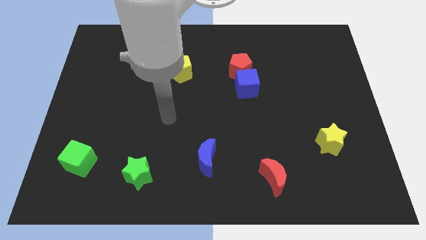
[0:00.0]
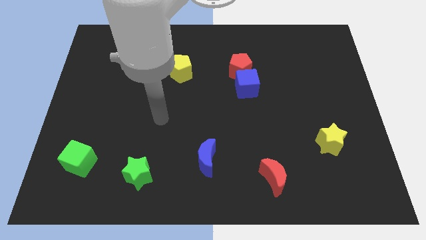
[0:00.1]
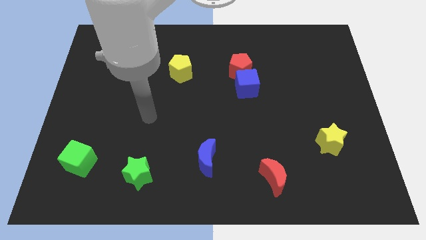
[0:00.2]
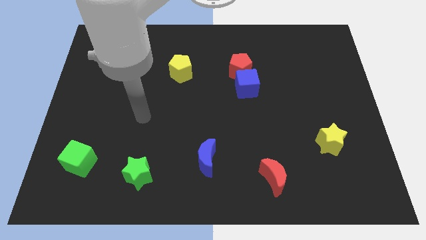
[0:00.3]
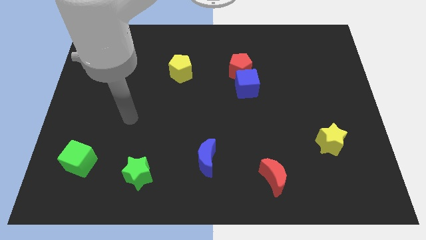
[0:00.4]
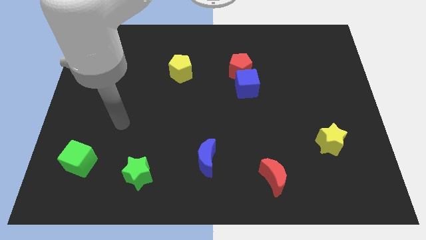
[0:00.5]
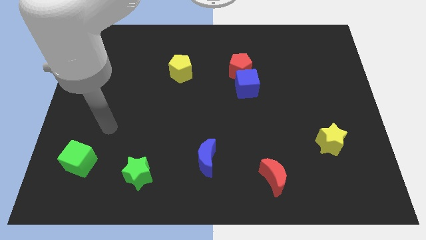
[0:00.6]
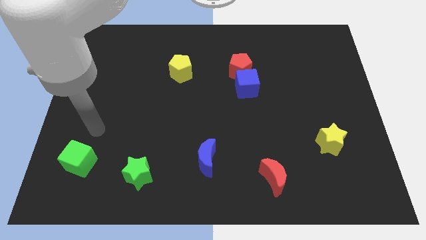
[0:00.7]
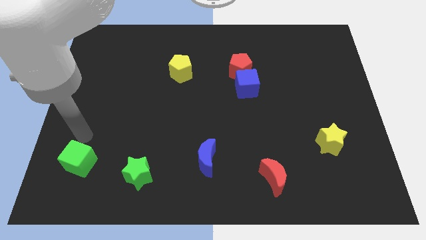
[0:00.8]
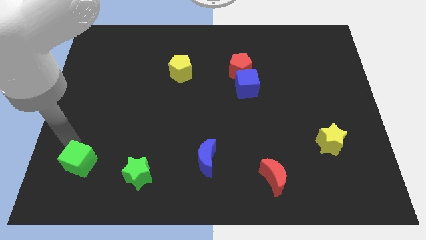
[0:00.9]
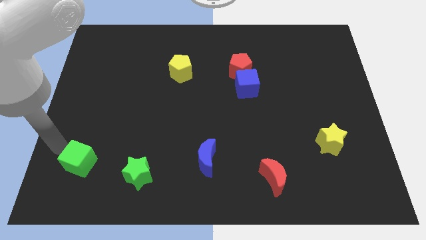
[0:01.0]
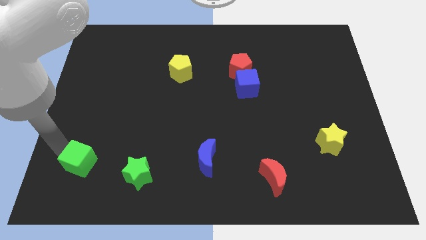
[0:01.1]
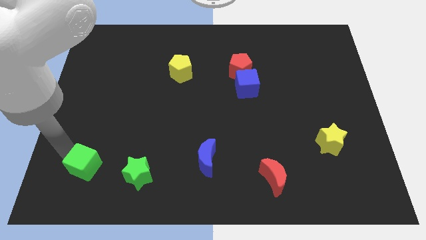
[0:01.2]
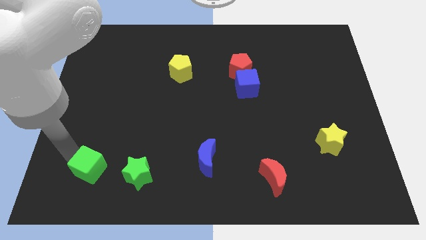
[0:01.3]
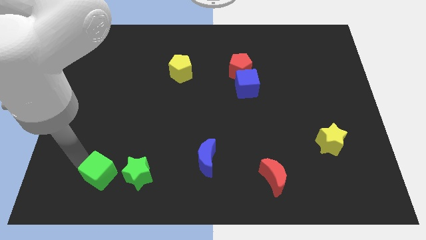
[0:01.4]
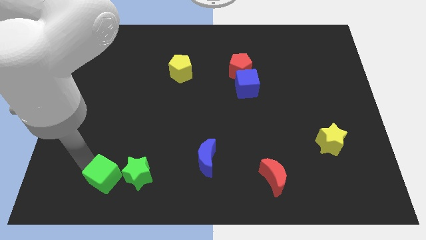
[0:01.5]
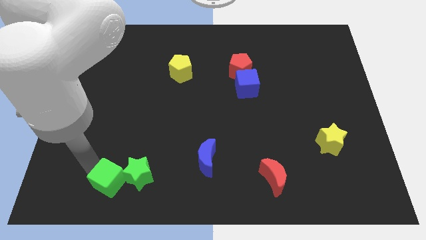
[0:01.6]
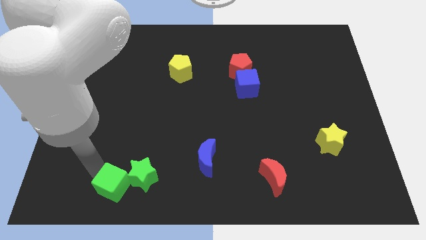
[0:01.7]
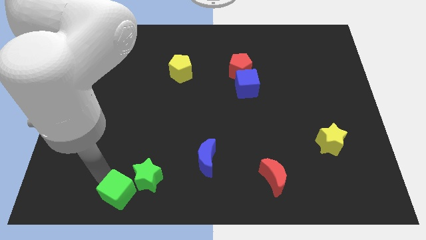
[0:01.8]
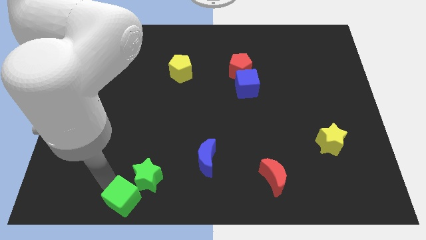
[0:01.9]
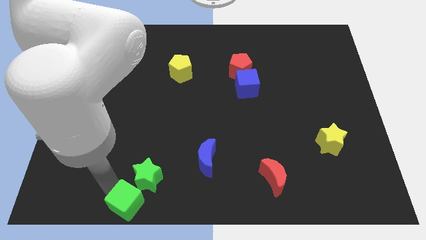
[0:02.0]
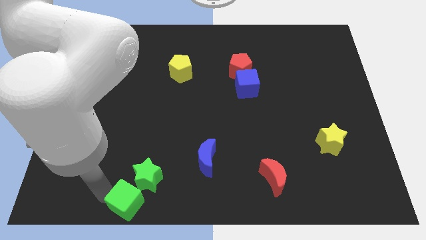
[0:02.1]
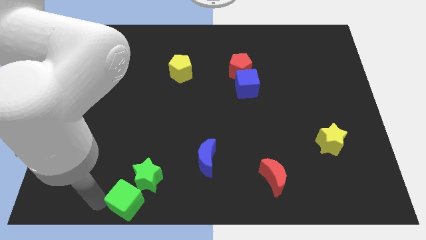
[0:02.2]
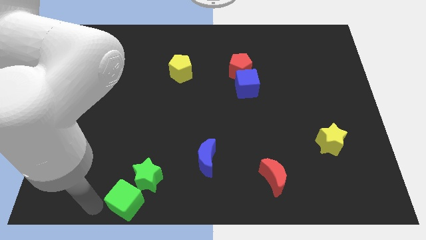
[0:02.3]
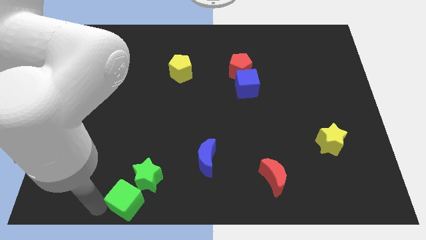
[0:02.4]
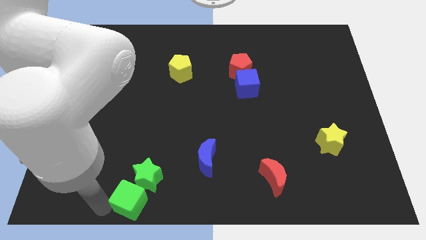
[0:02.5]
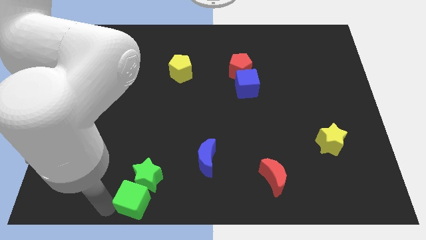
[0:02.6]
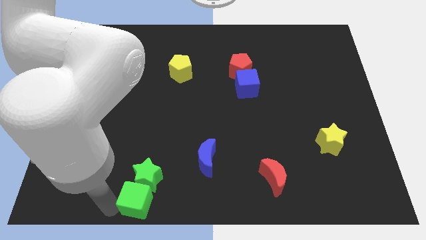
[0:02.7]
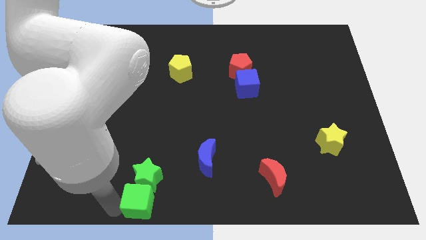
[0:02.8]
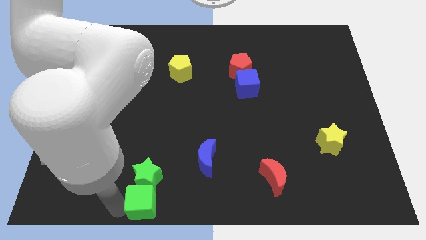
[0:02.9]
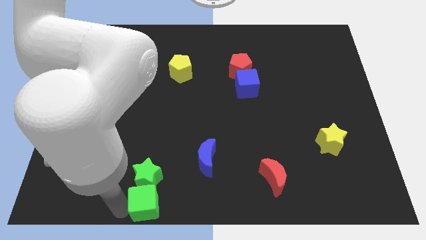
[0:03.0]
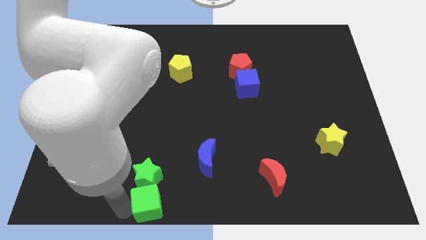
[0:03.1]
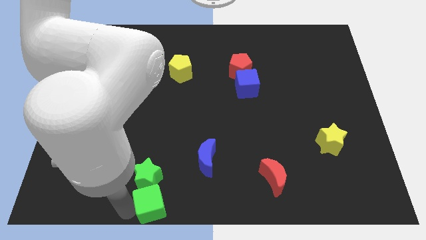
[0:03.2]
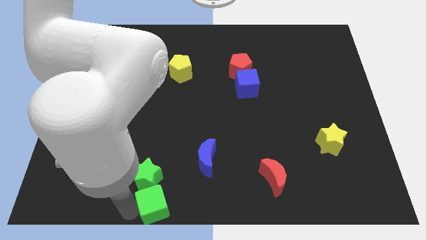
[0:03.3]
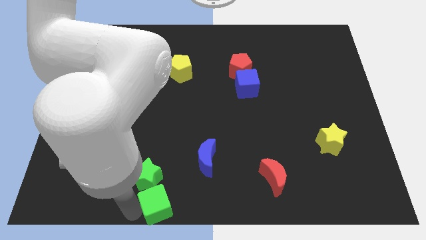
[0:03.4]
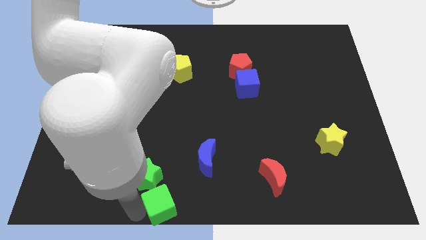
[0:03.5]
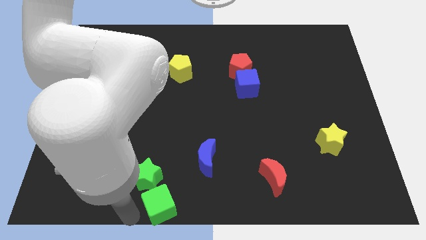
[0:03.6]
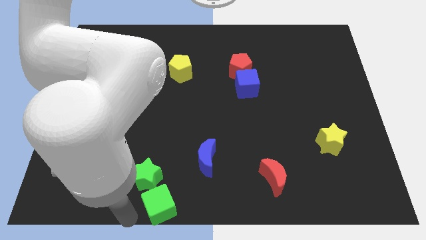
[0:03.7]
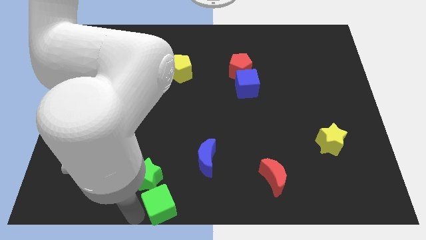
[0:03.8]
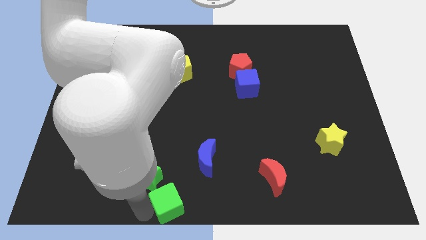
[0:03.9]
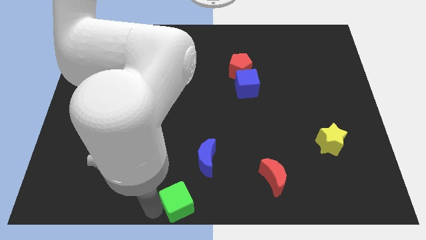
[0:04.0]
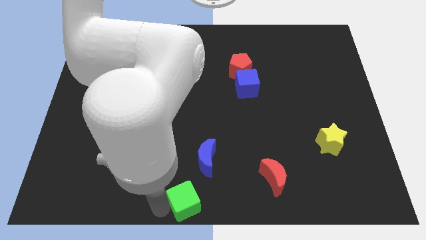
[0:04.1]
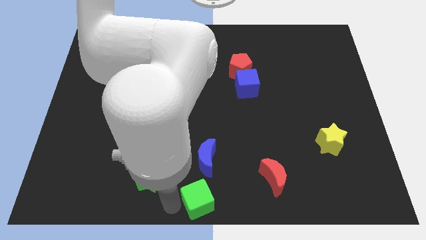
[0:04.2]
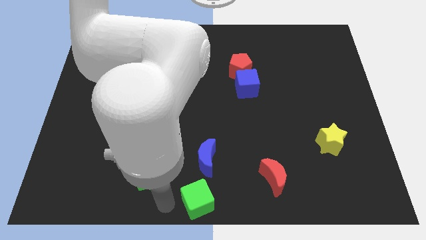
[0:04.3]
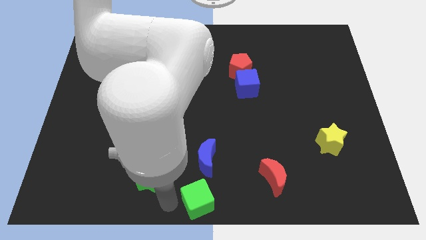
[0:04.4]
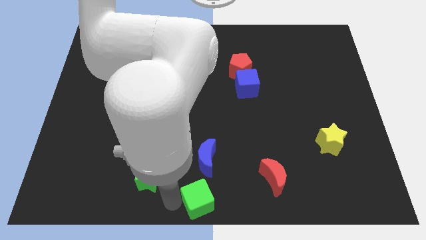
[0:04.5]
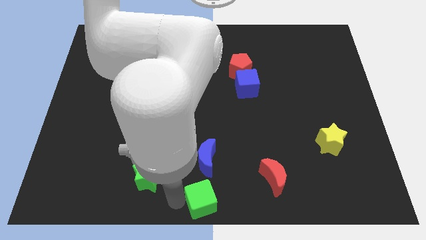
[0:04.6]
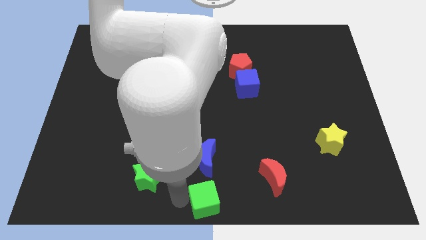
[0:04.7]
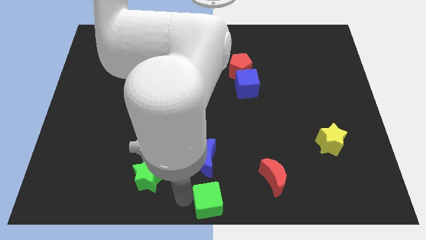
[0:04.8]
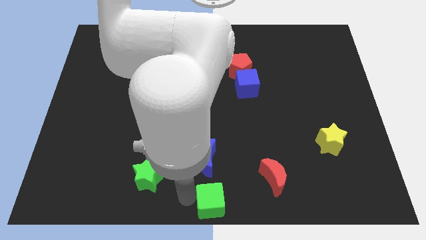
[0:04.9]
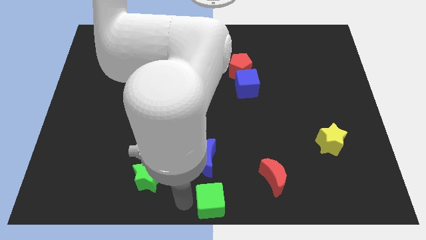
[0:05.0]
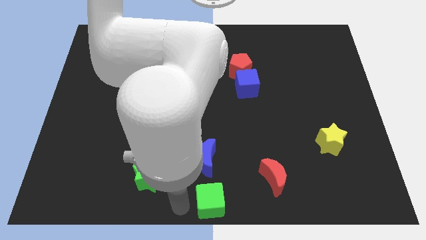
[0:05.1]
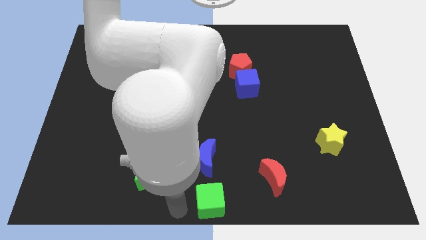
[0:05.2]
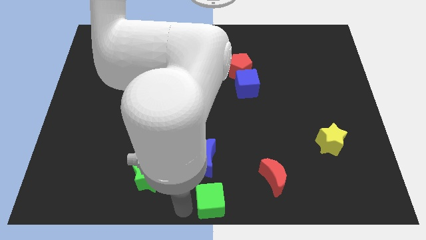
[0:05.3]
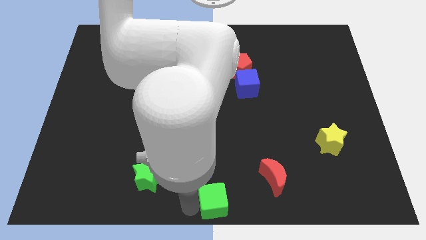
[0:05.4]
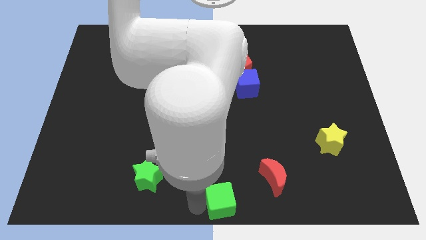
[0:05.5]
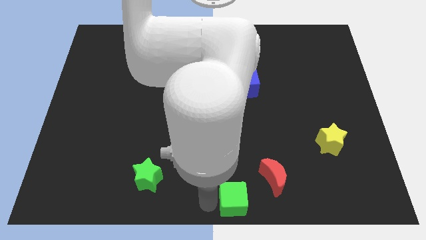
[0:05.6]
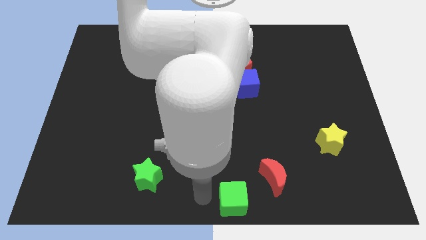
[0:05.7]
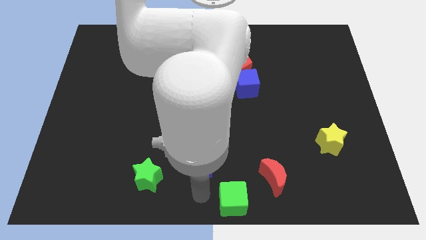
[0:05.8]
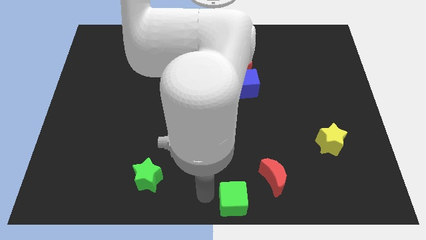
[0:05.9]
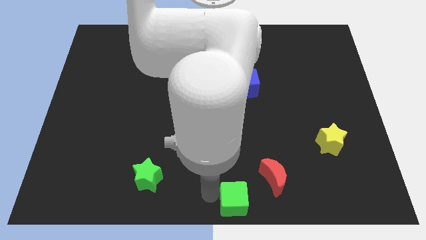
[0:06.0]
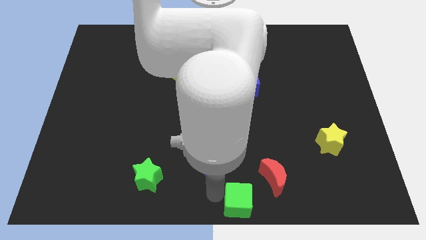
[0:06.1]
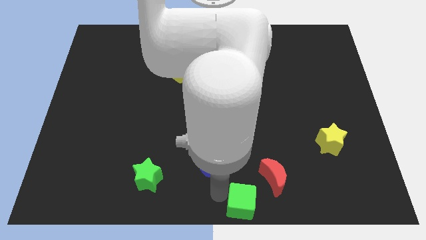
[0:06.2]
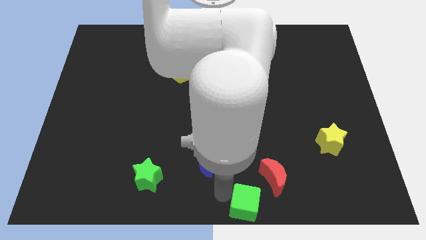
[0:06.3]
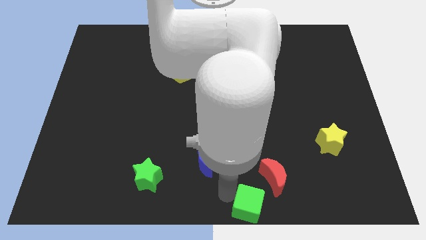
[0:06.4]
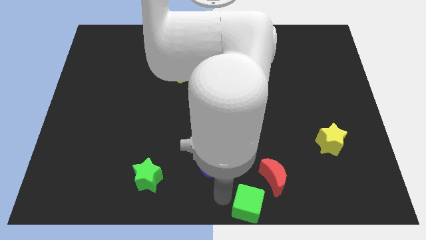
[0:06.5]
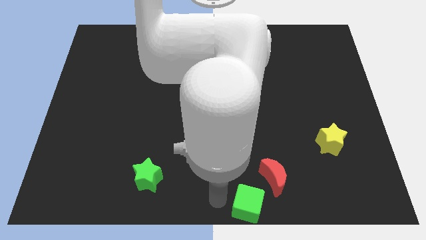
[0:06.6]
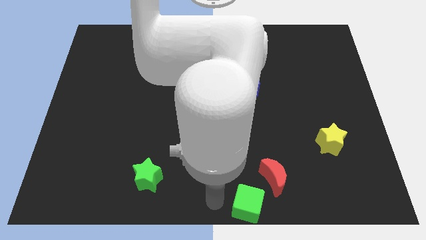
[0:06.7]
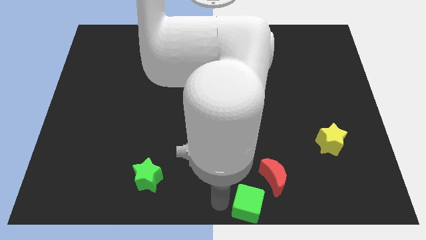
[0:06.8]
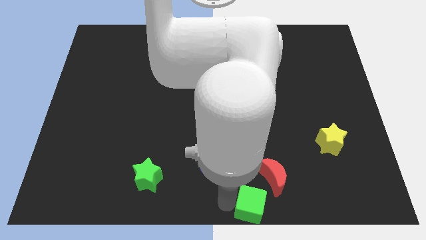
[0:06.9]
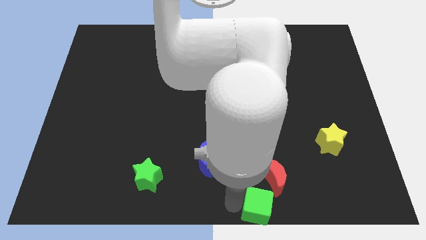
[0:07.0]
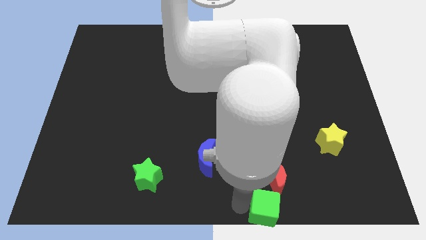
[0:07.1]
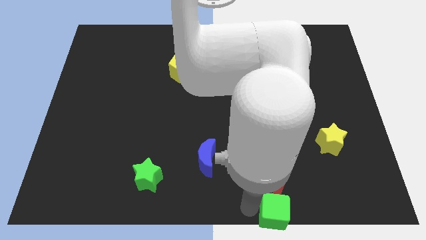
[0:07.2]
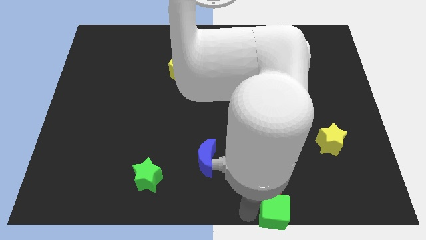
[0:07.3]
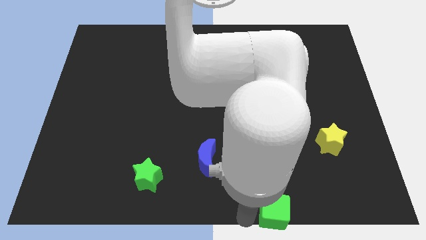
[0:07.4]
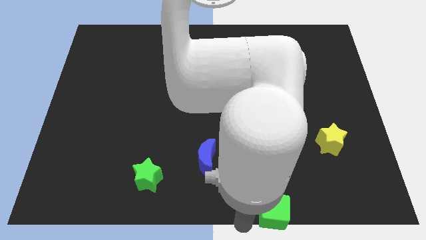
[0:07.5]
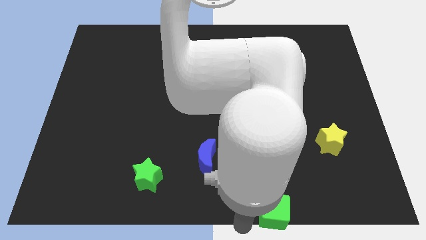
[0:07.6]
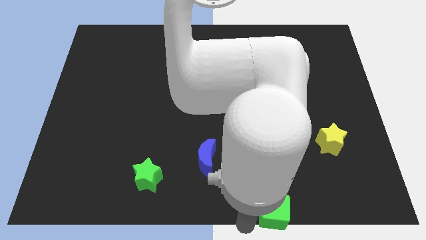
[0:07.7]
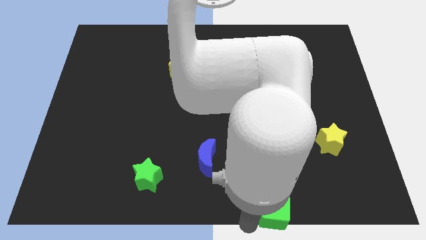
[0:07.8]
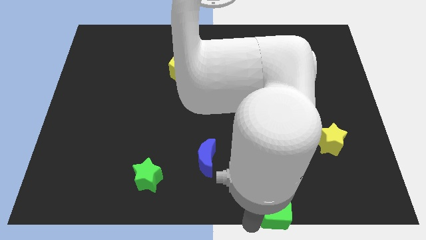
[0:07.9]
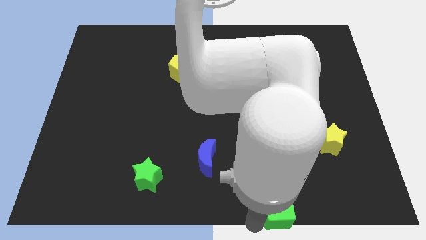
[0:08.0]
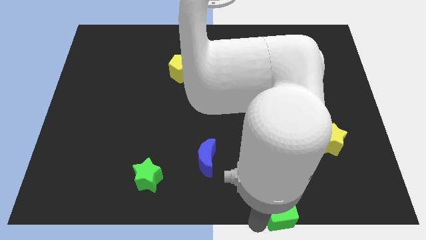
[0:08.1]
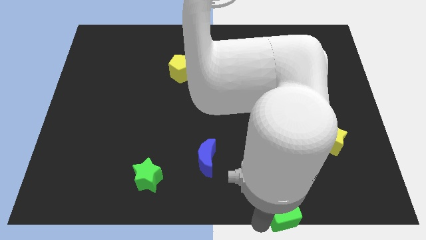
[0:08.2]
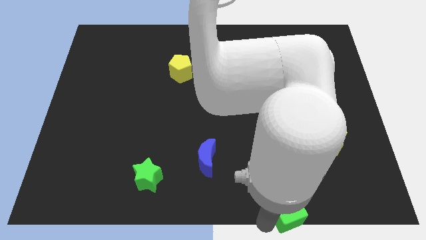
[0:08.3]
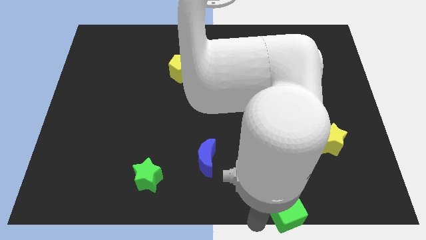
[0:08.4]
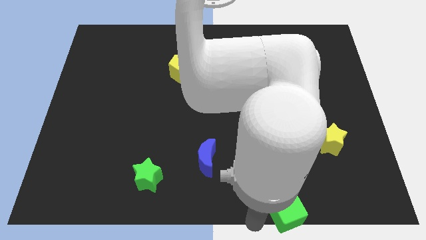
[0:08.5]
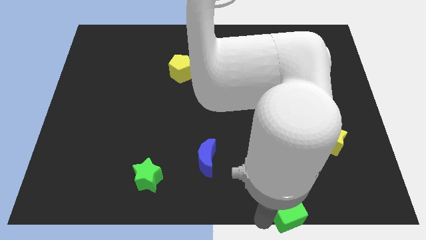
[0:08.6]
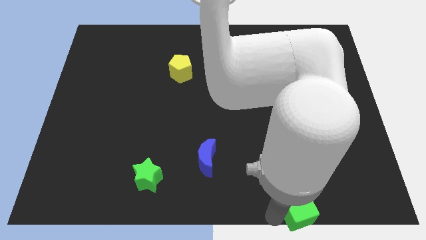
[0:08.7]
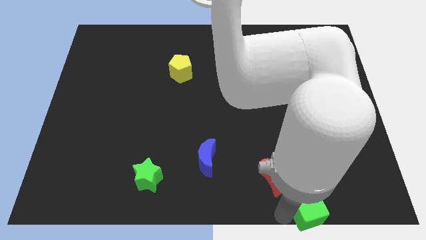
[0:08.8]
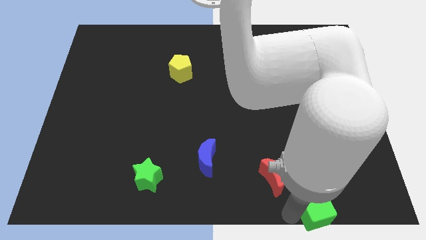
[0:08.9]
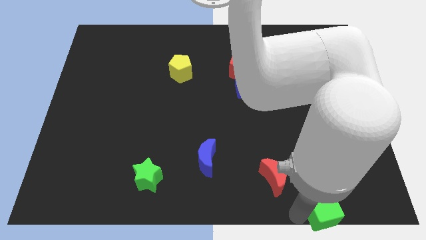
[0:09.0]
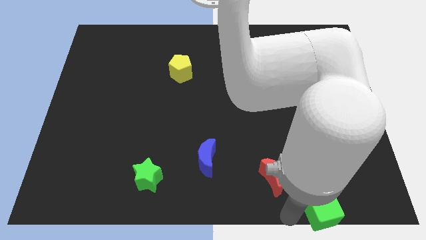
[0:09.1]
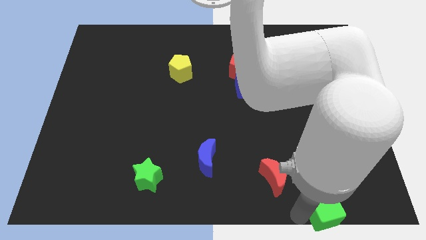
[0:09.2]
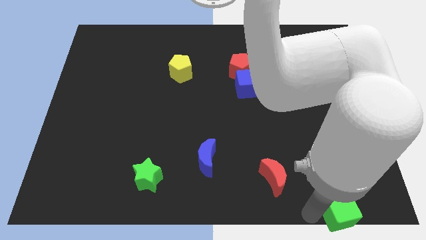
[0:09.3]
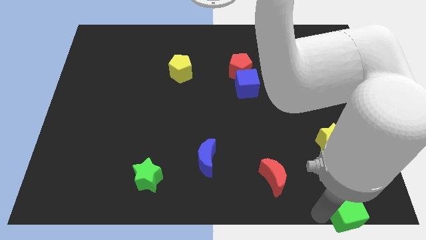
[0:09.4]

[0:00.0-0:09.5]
put the green cube to the lower right corner
